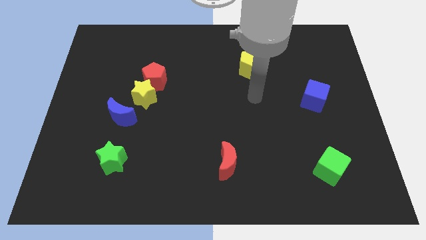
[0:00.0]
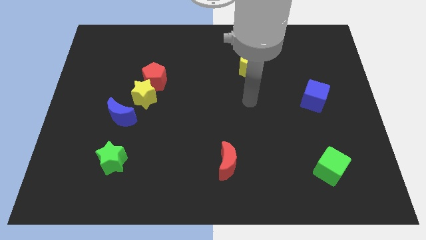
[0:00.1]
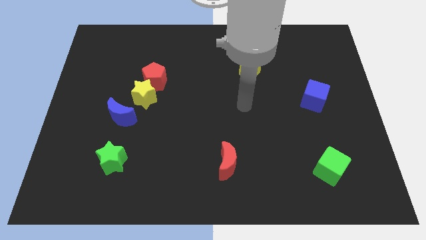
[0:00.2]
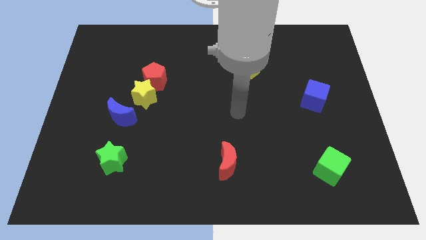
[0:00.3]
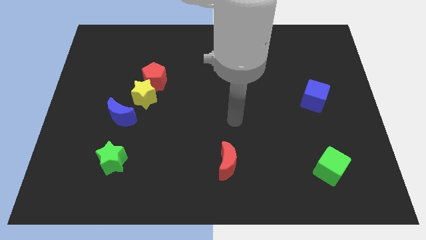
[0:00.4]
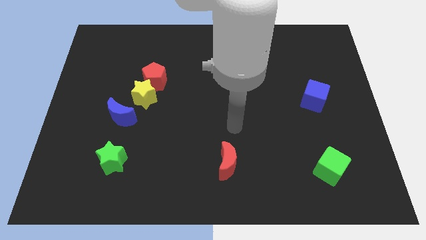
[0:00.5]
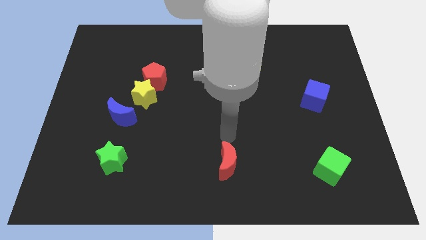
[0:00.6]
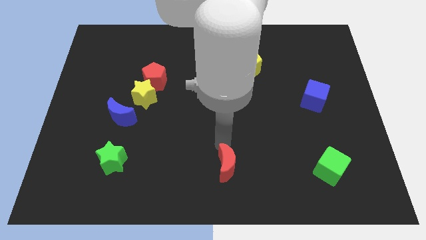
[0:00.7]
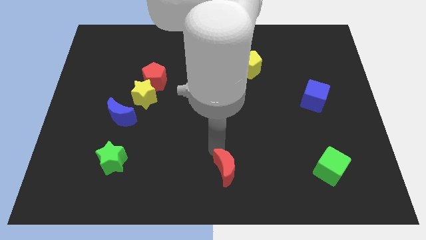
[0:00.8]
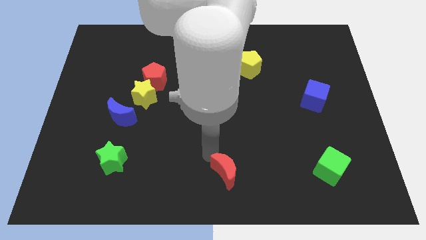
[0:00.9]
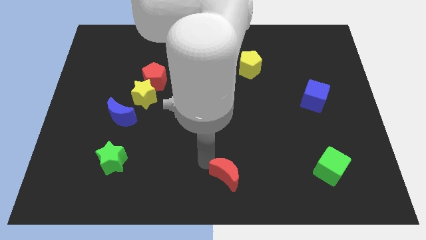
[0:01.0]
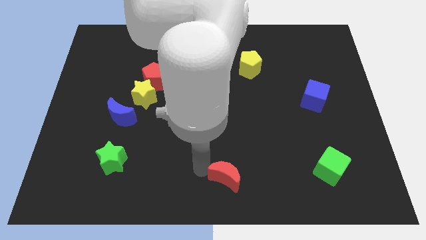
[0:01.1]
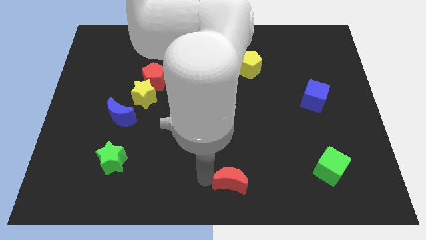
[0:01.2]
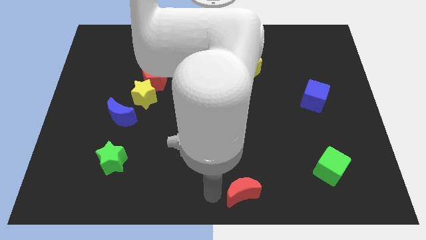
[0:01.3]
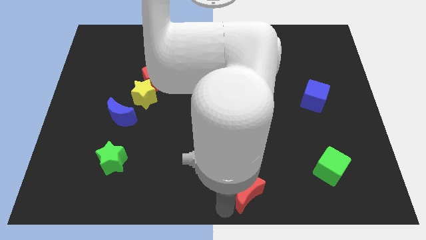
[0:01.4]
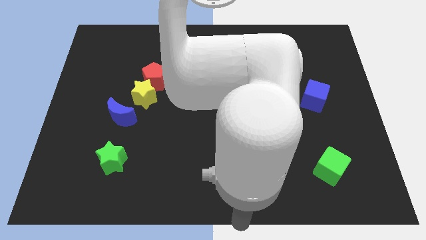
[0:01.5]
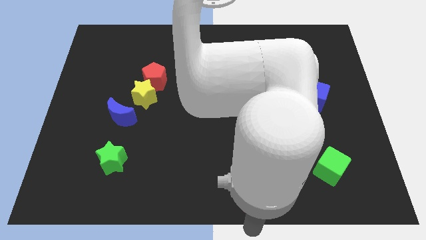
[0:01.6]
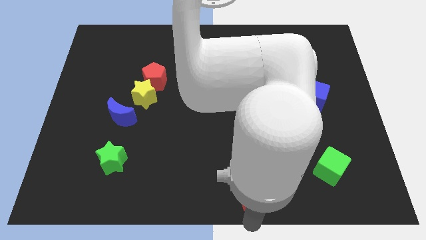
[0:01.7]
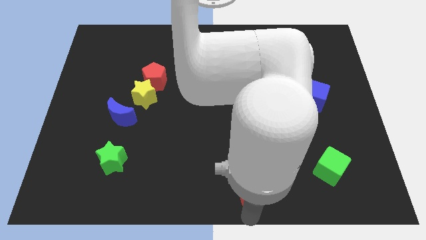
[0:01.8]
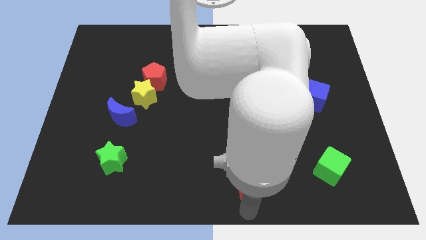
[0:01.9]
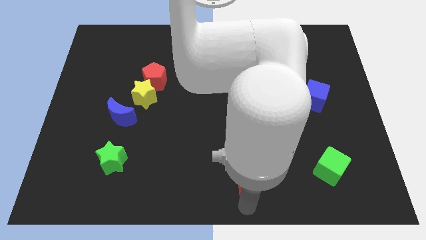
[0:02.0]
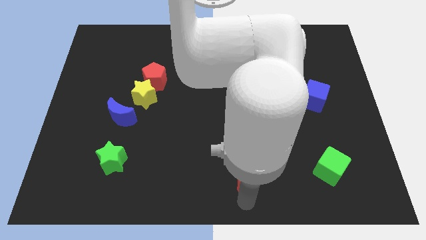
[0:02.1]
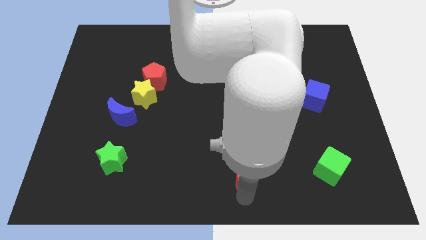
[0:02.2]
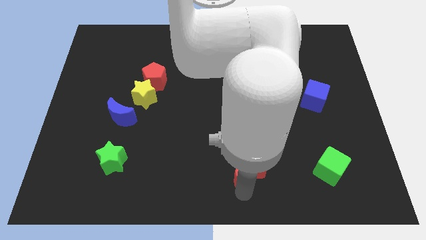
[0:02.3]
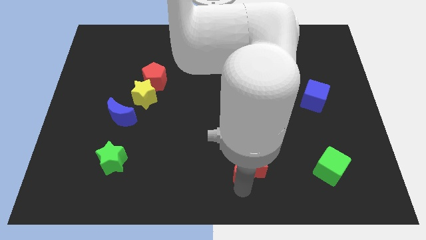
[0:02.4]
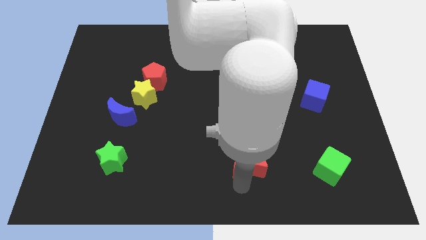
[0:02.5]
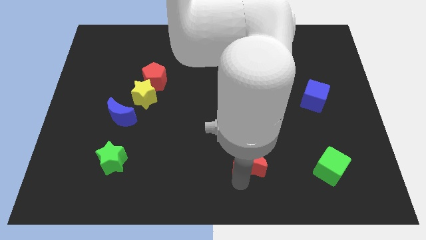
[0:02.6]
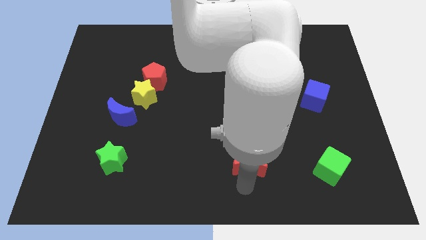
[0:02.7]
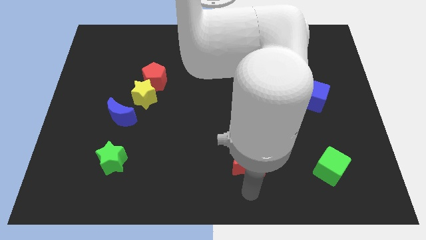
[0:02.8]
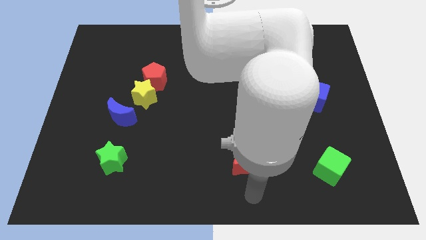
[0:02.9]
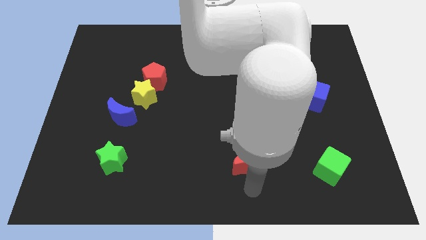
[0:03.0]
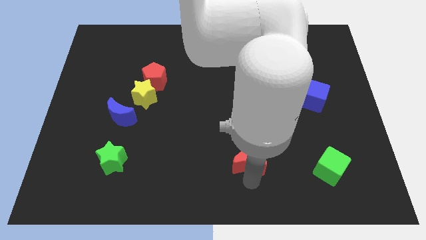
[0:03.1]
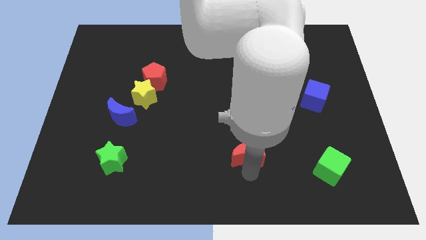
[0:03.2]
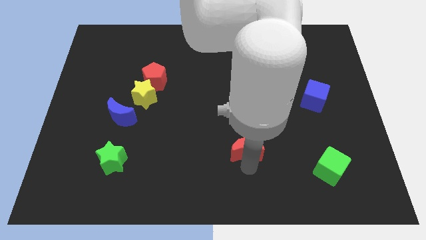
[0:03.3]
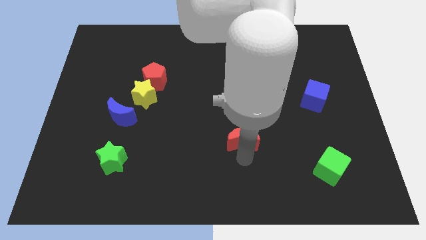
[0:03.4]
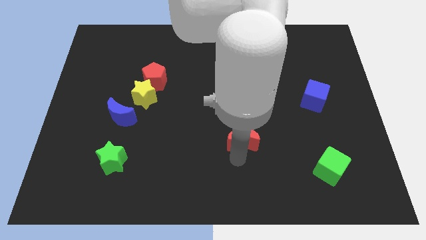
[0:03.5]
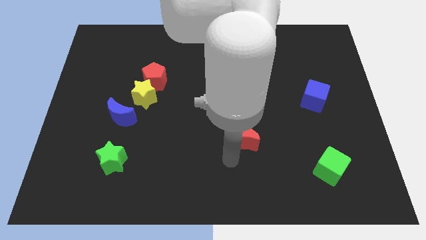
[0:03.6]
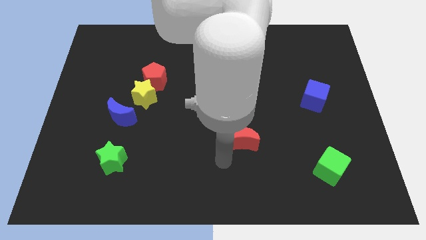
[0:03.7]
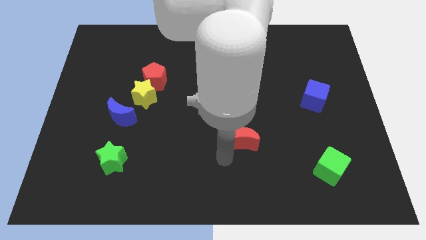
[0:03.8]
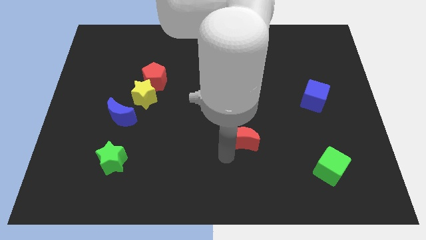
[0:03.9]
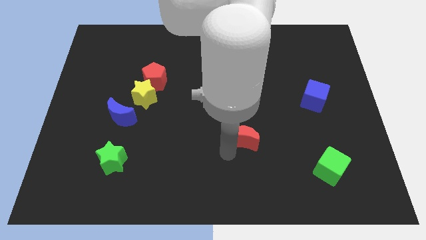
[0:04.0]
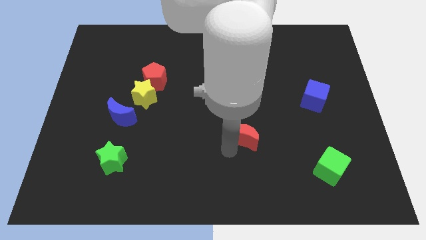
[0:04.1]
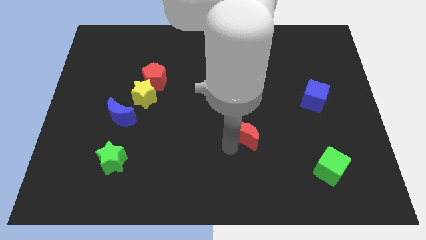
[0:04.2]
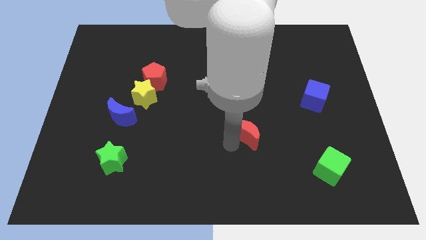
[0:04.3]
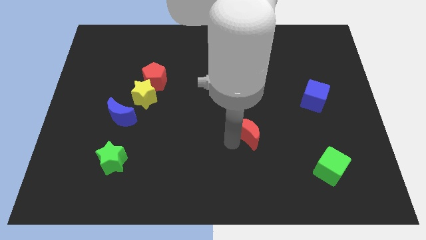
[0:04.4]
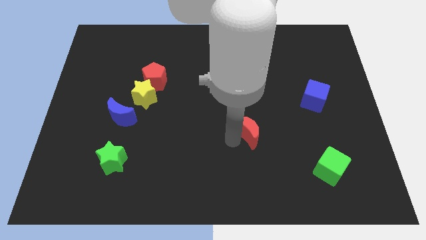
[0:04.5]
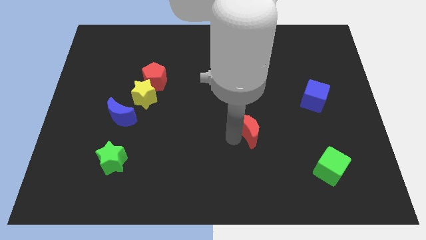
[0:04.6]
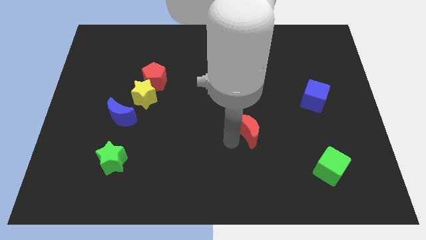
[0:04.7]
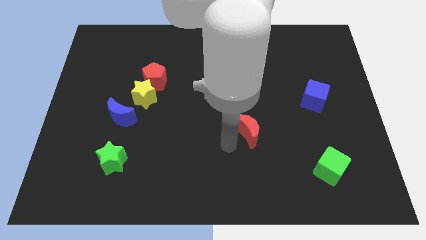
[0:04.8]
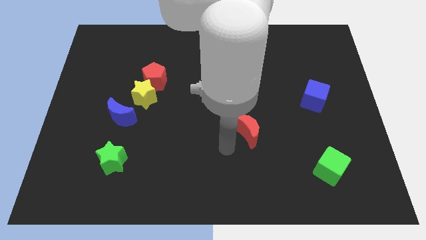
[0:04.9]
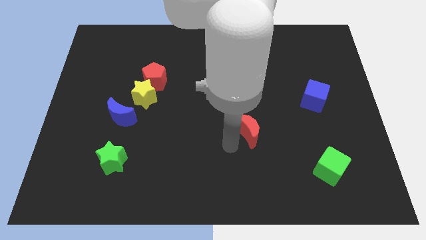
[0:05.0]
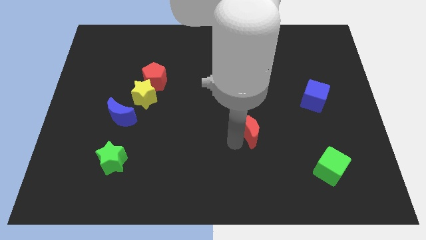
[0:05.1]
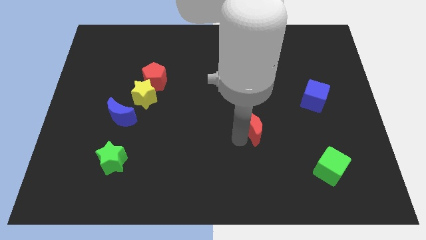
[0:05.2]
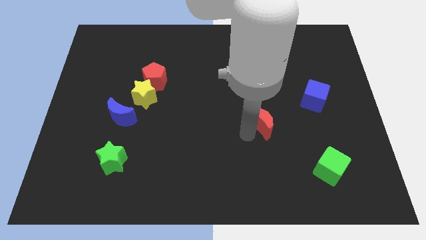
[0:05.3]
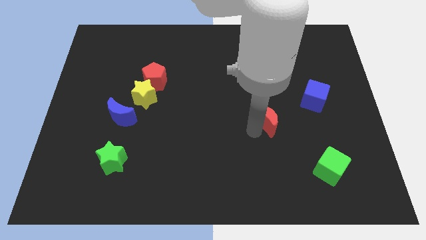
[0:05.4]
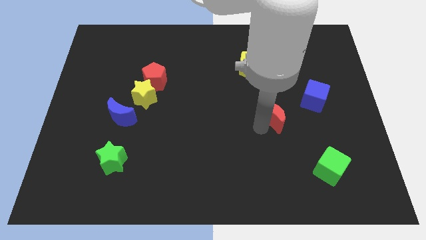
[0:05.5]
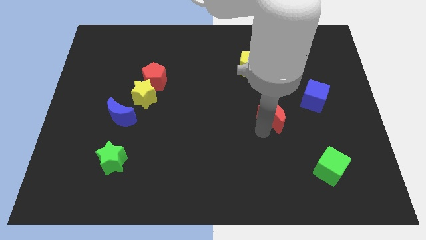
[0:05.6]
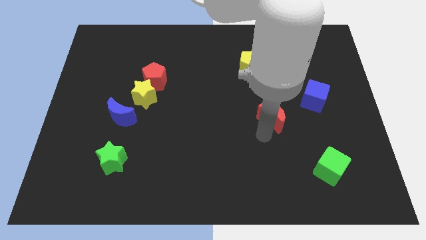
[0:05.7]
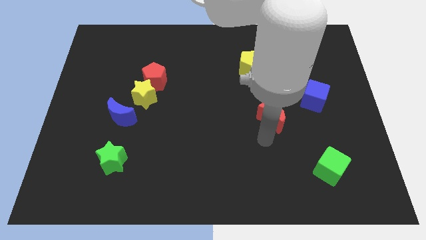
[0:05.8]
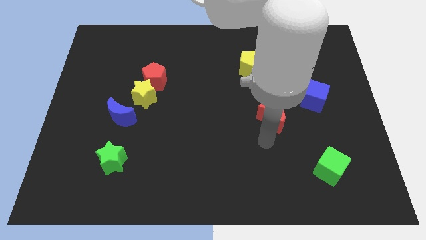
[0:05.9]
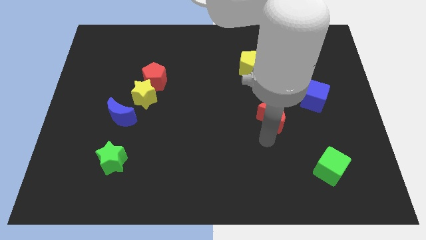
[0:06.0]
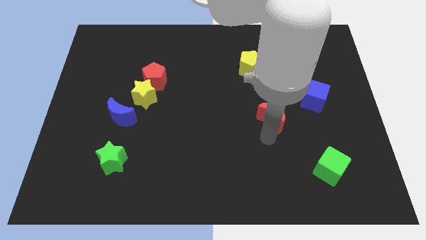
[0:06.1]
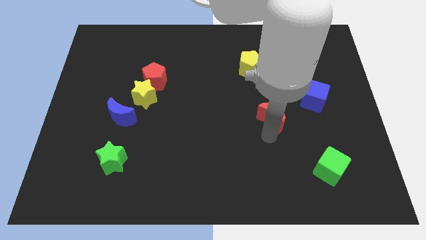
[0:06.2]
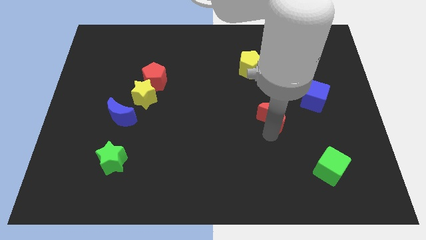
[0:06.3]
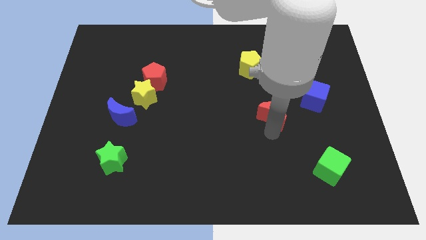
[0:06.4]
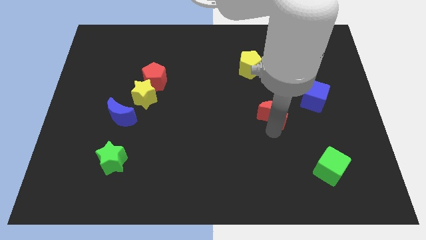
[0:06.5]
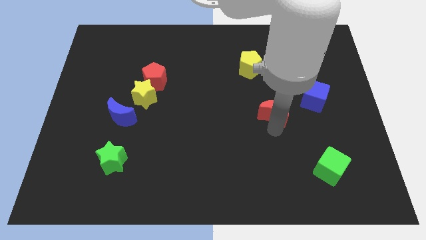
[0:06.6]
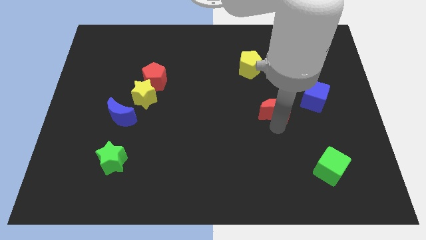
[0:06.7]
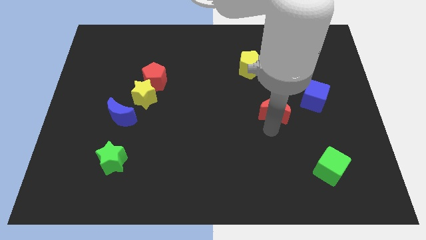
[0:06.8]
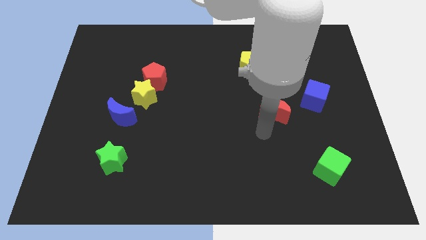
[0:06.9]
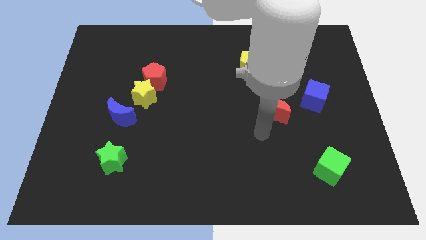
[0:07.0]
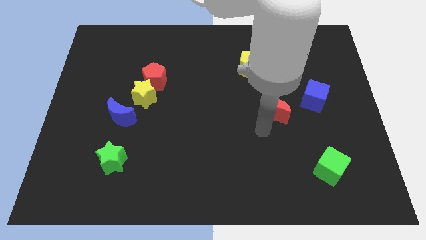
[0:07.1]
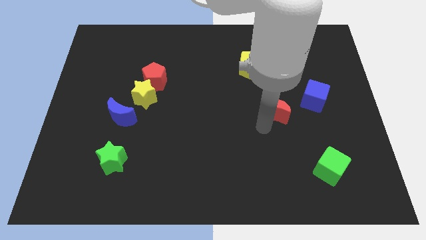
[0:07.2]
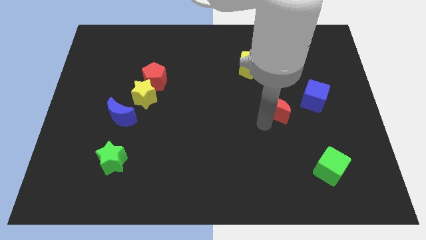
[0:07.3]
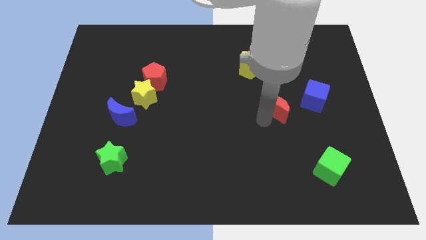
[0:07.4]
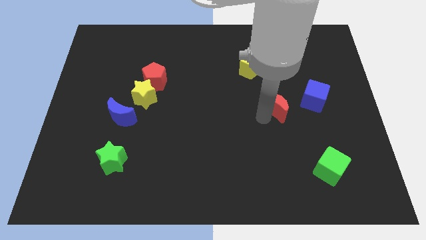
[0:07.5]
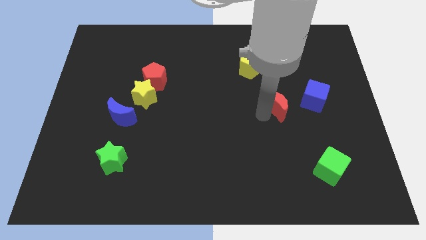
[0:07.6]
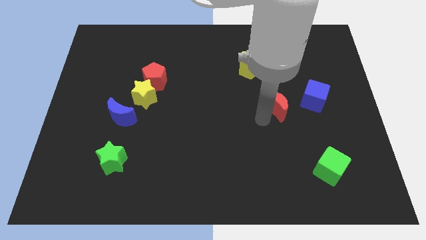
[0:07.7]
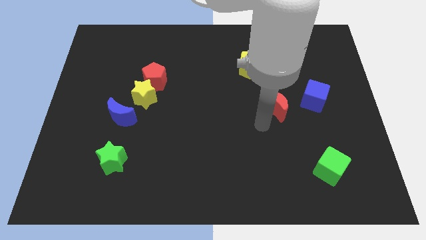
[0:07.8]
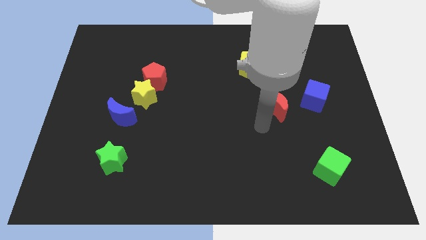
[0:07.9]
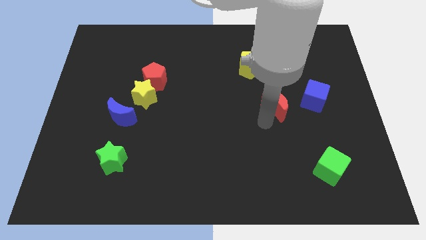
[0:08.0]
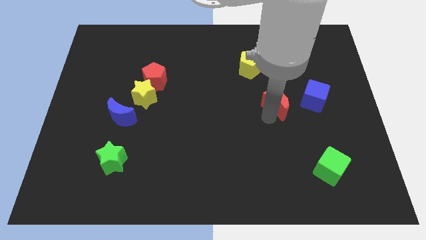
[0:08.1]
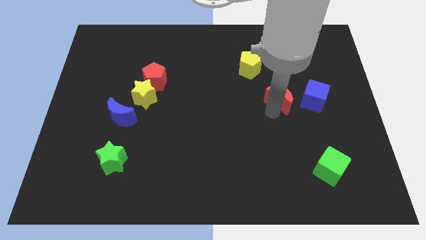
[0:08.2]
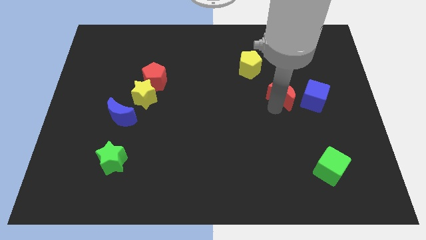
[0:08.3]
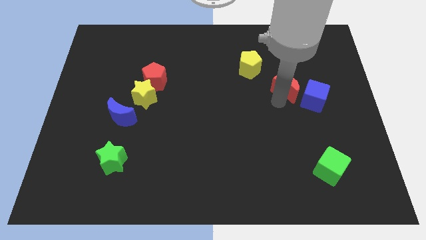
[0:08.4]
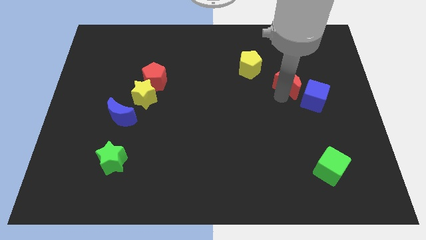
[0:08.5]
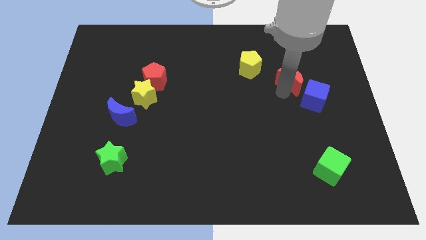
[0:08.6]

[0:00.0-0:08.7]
move the red moon to the top of the blue cube
